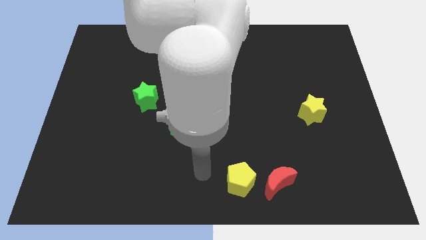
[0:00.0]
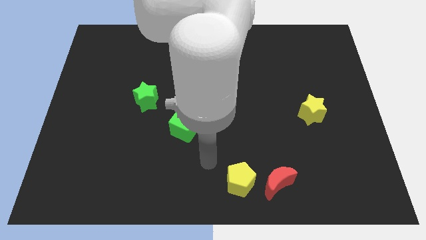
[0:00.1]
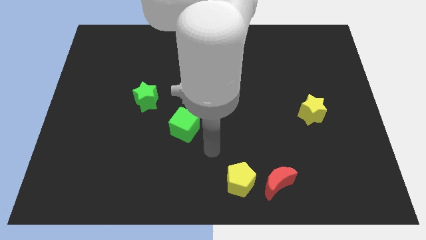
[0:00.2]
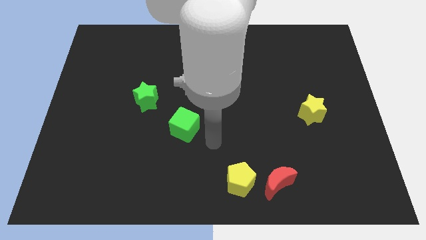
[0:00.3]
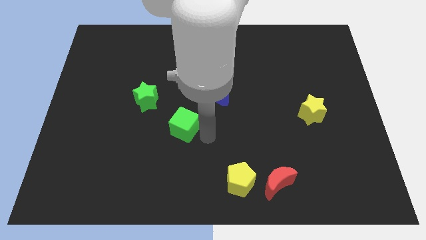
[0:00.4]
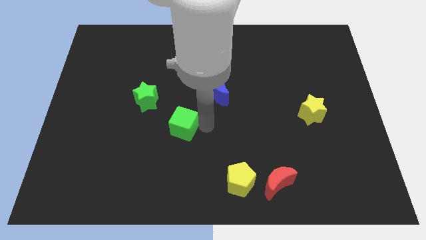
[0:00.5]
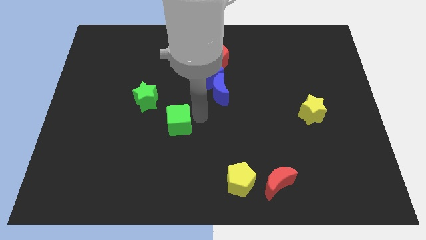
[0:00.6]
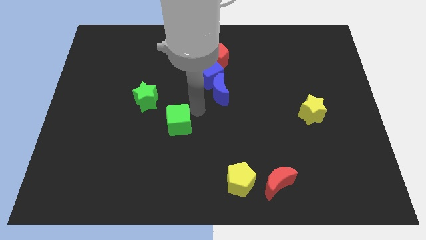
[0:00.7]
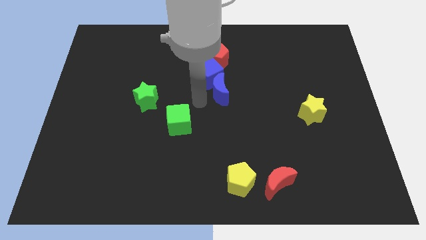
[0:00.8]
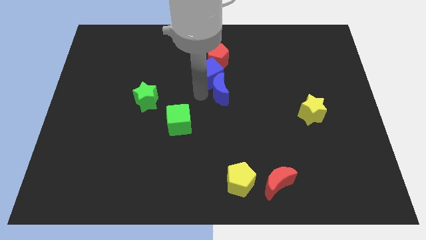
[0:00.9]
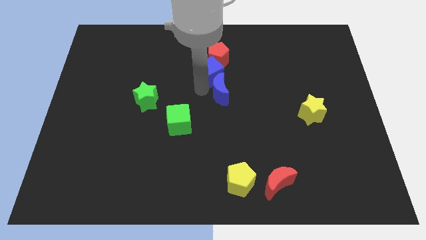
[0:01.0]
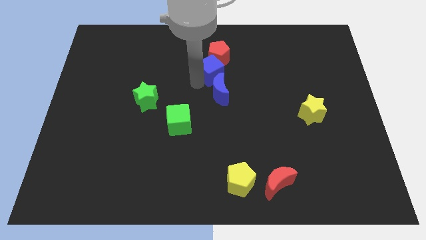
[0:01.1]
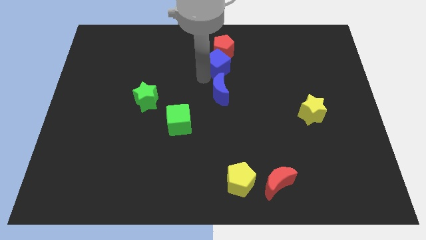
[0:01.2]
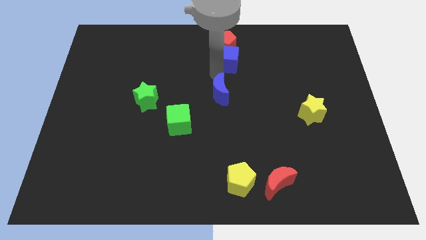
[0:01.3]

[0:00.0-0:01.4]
pull the blue moon apart from the blue cube

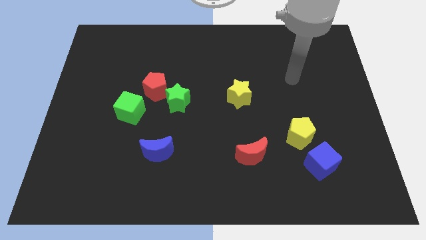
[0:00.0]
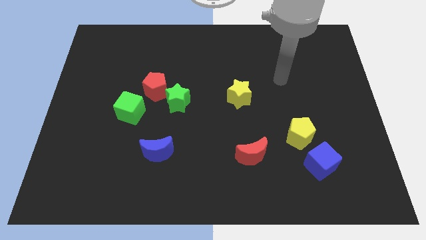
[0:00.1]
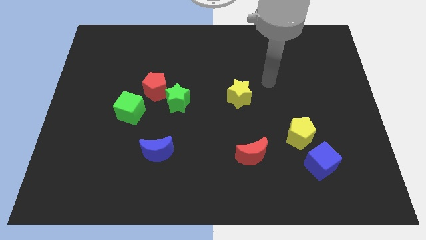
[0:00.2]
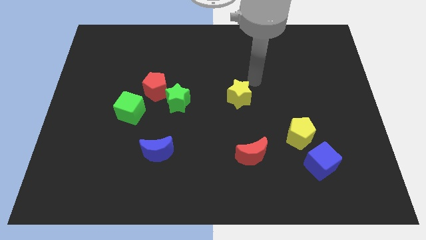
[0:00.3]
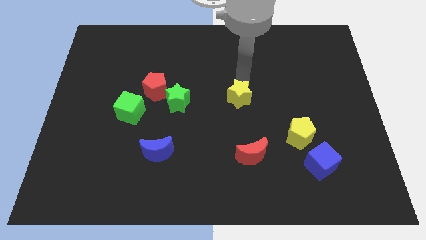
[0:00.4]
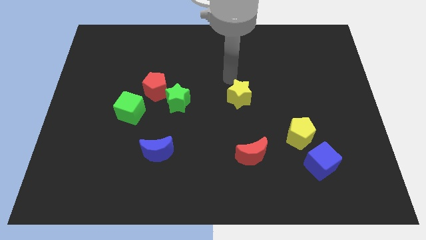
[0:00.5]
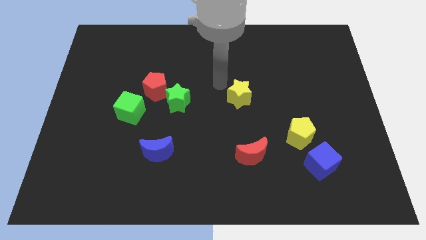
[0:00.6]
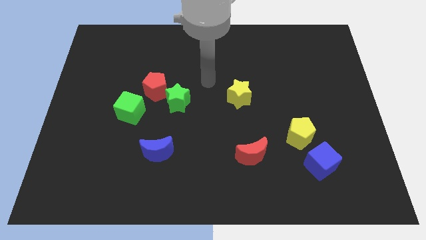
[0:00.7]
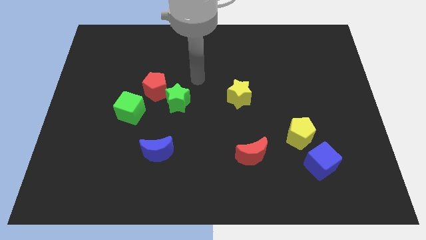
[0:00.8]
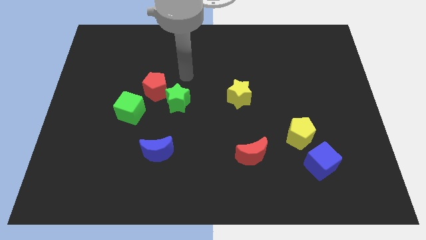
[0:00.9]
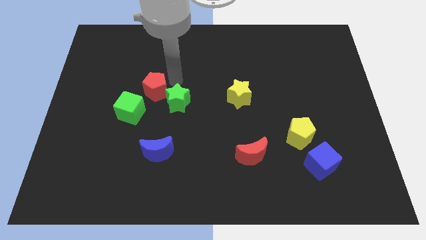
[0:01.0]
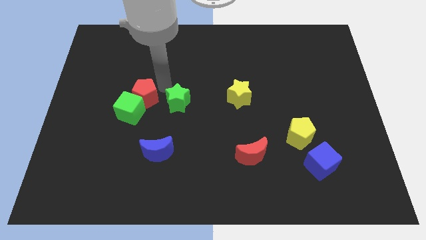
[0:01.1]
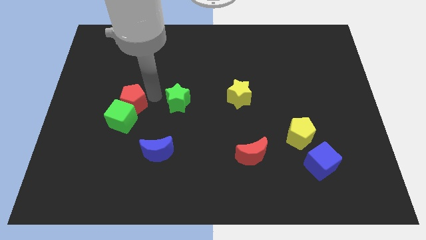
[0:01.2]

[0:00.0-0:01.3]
pull the green star apart from the red pentagon

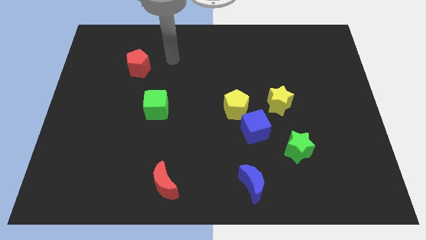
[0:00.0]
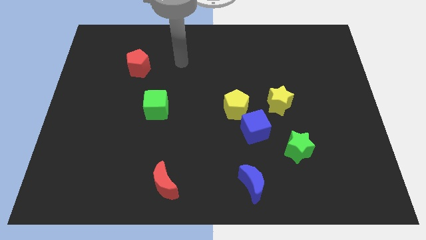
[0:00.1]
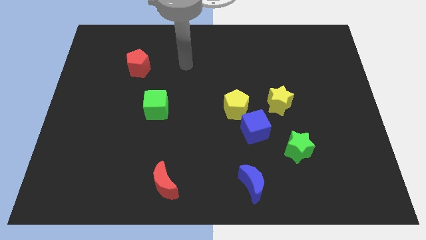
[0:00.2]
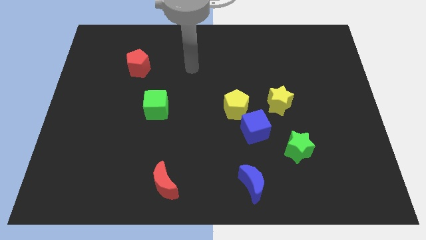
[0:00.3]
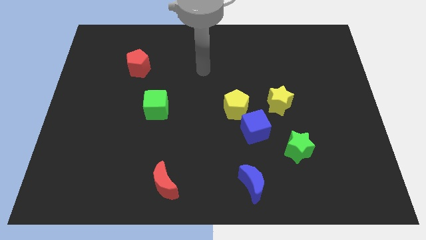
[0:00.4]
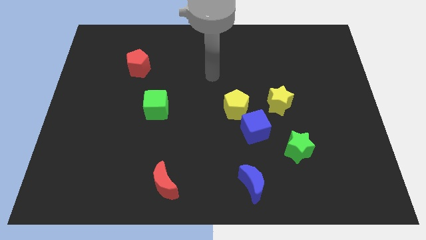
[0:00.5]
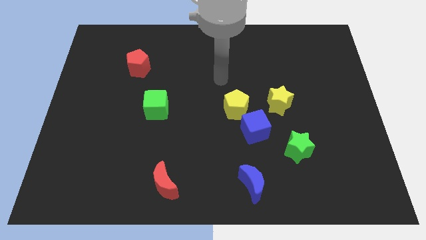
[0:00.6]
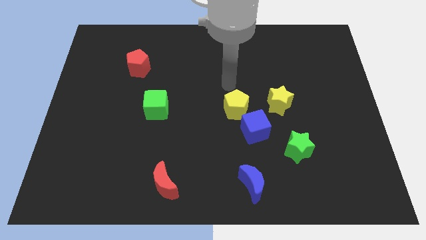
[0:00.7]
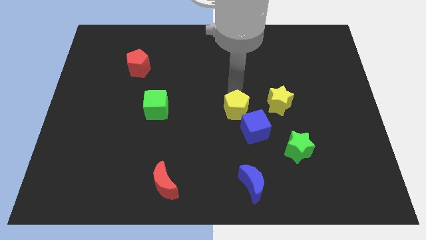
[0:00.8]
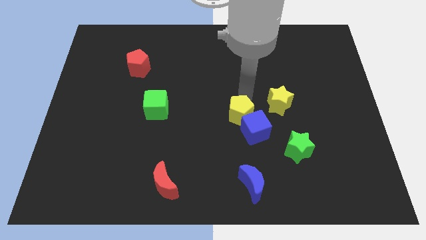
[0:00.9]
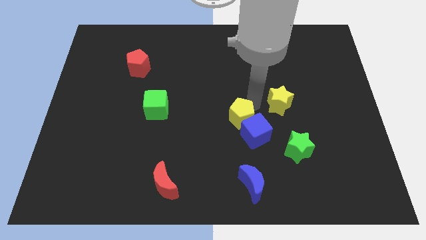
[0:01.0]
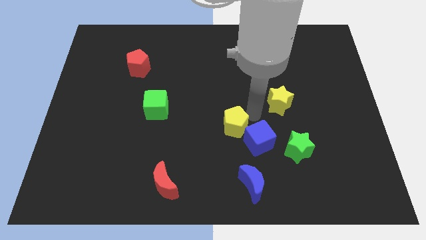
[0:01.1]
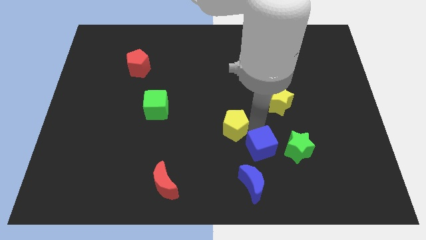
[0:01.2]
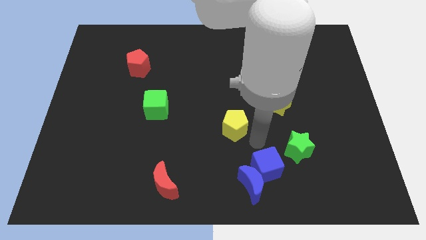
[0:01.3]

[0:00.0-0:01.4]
move the yellow pentagon away from the blue cube

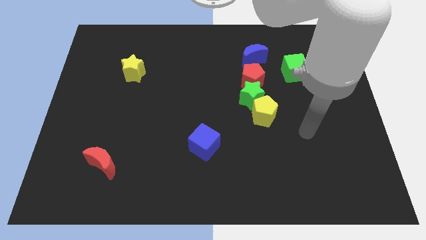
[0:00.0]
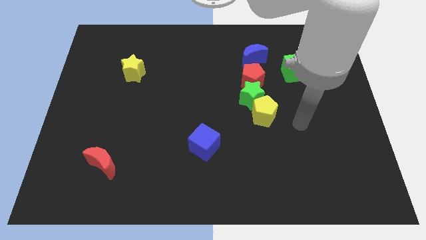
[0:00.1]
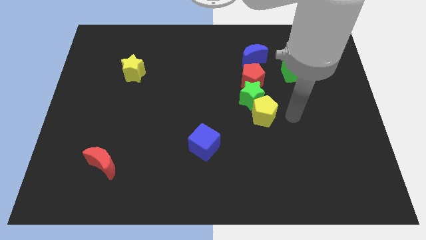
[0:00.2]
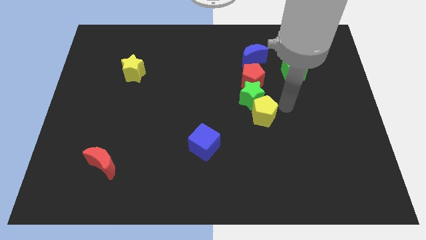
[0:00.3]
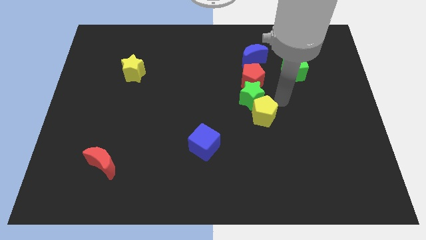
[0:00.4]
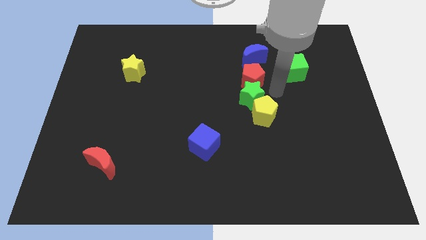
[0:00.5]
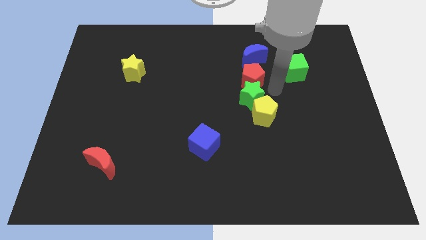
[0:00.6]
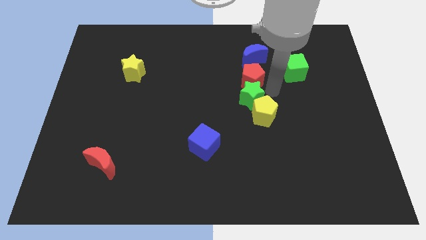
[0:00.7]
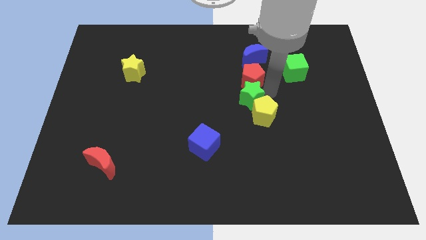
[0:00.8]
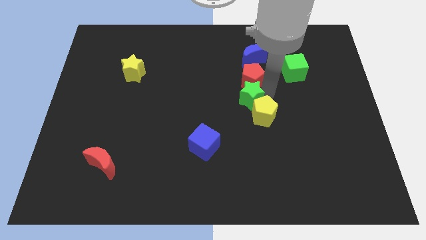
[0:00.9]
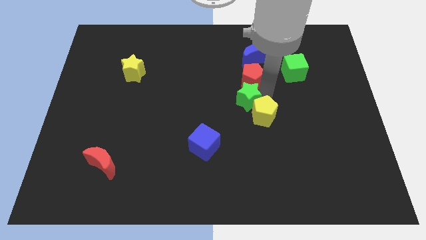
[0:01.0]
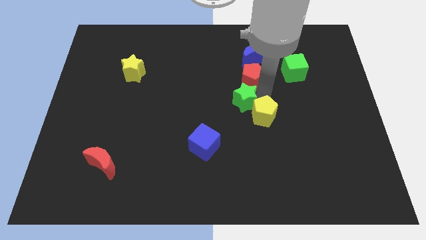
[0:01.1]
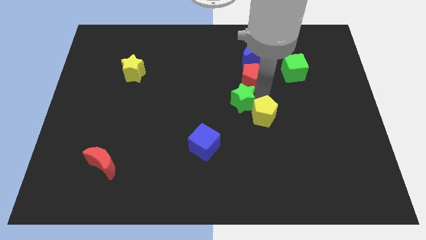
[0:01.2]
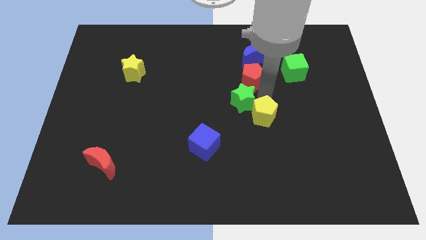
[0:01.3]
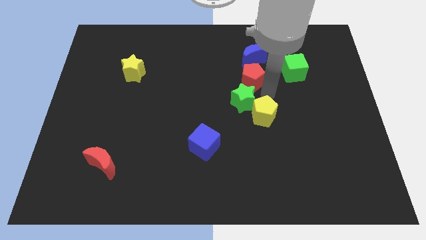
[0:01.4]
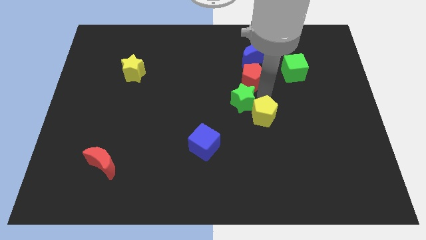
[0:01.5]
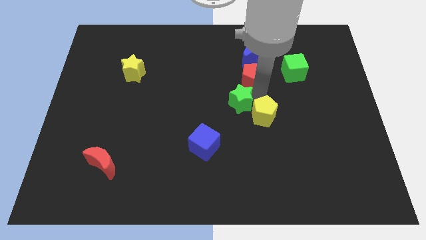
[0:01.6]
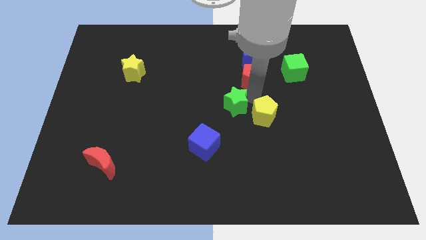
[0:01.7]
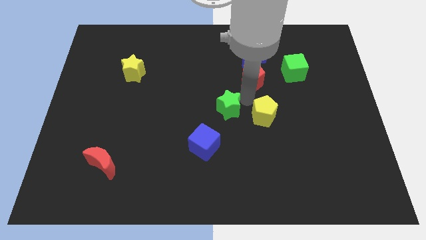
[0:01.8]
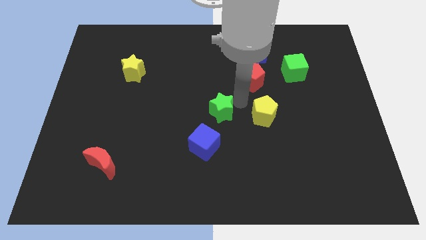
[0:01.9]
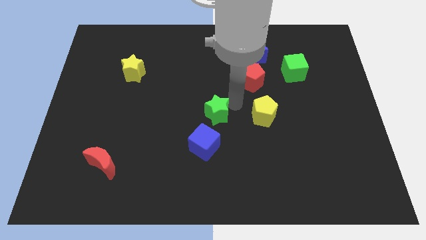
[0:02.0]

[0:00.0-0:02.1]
move the green star away from the red pentagon and yellow pentagon

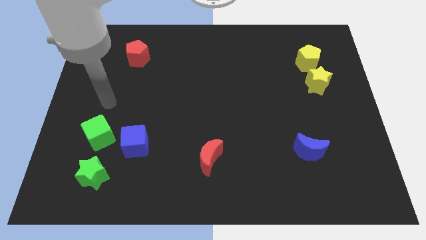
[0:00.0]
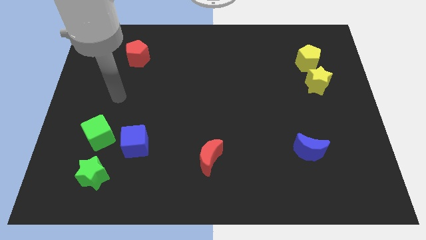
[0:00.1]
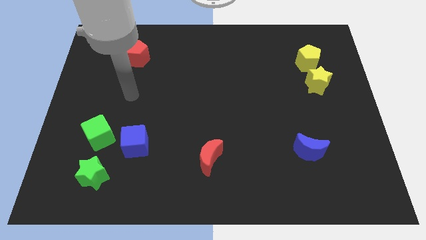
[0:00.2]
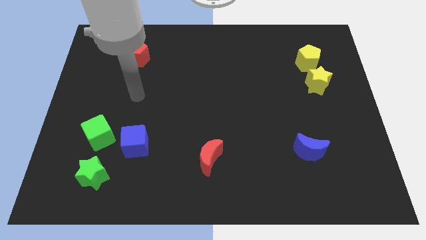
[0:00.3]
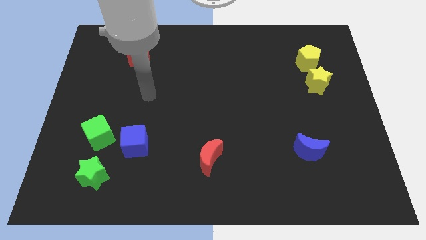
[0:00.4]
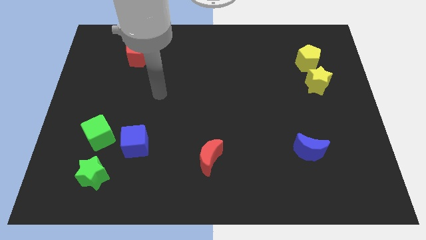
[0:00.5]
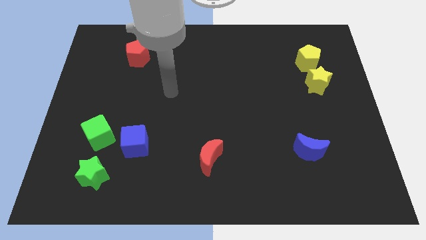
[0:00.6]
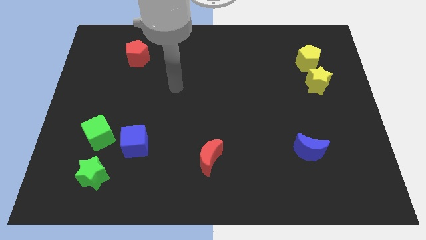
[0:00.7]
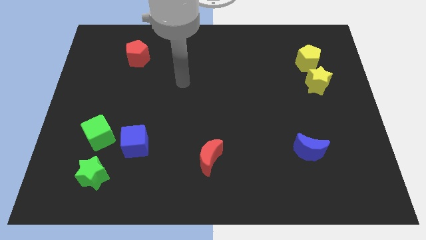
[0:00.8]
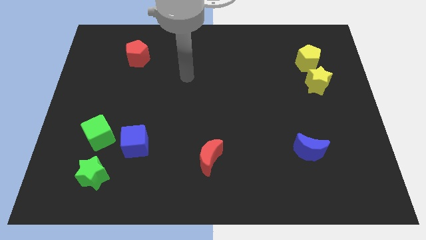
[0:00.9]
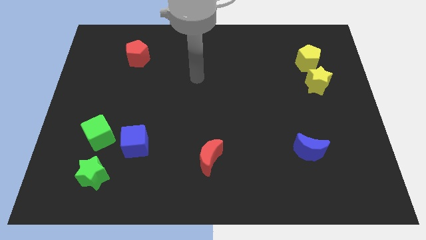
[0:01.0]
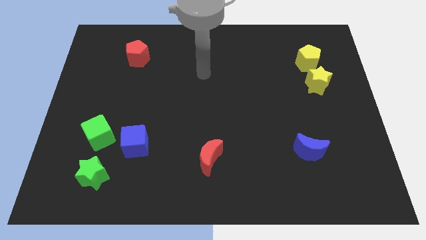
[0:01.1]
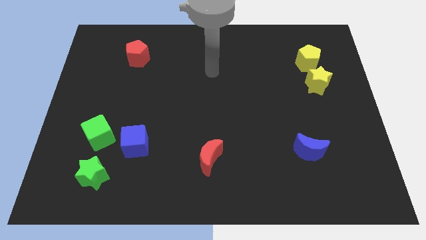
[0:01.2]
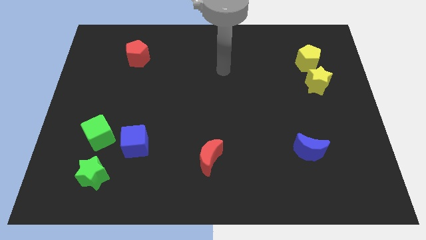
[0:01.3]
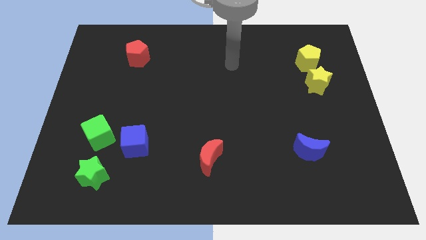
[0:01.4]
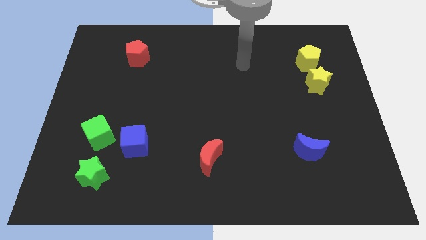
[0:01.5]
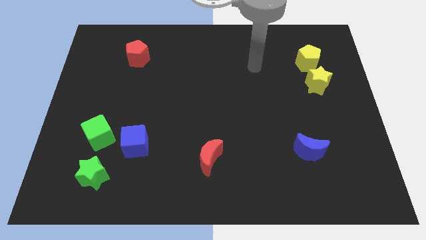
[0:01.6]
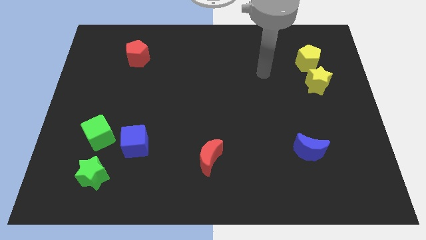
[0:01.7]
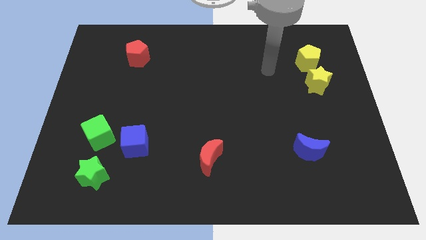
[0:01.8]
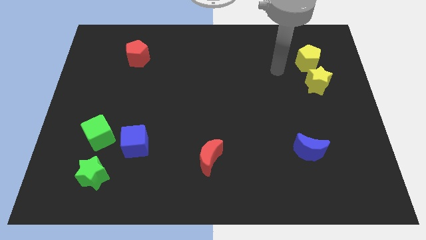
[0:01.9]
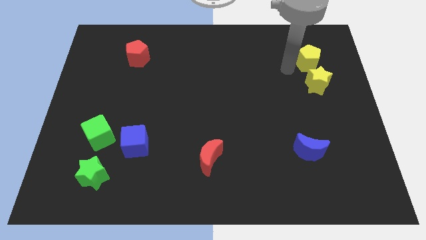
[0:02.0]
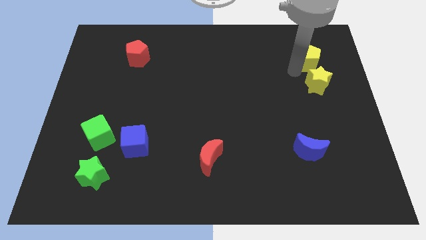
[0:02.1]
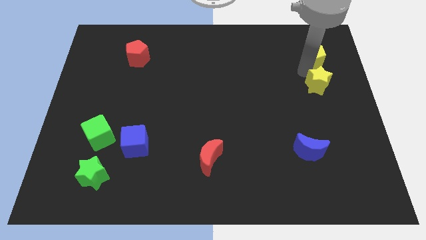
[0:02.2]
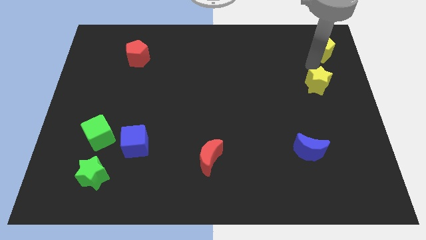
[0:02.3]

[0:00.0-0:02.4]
separate the yellow star from the yellow pentagon

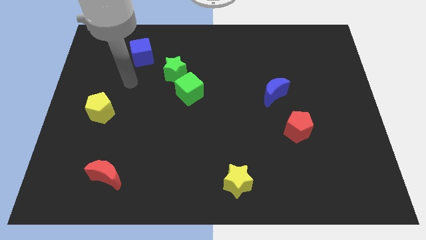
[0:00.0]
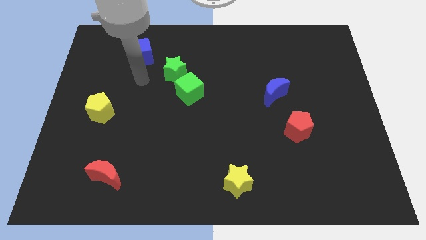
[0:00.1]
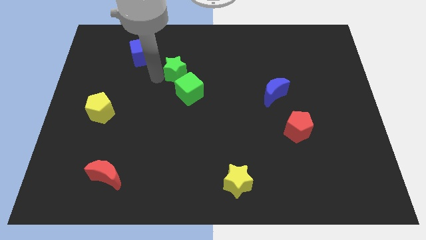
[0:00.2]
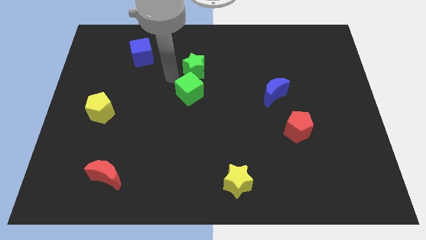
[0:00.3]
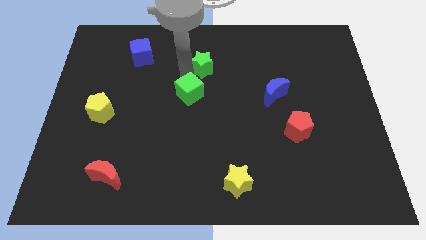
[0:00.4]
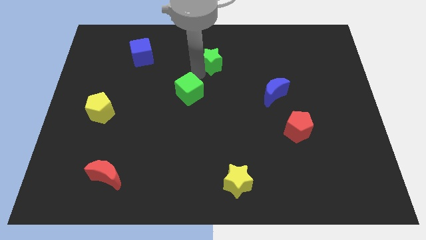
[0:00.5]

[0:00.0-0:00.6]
move the green cube away from the green star
